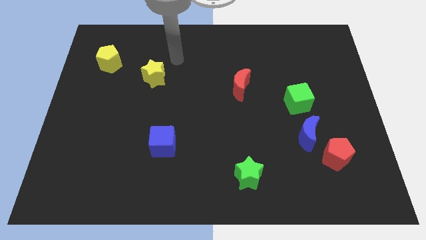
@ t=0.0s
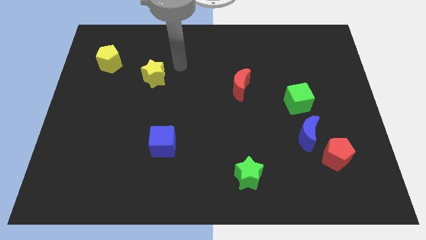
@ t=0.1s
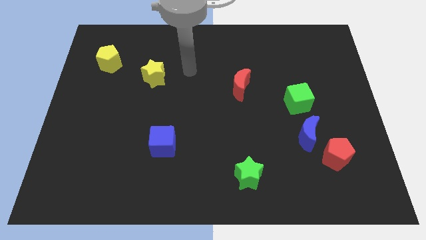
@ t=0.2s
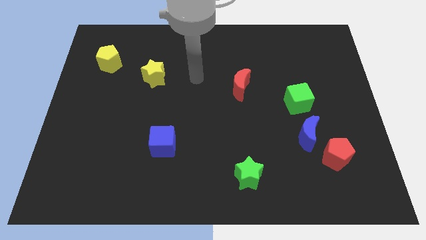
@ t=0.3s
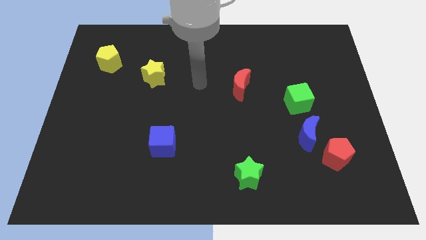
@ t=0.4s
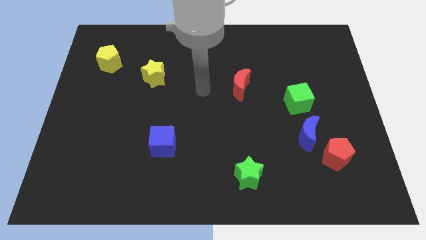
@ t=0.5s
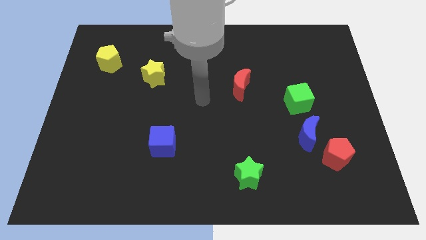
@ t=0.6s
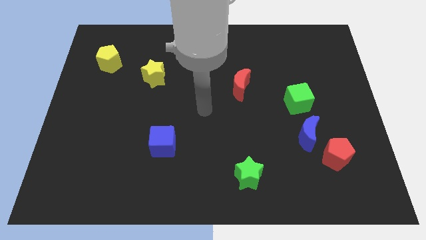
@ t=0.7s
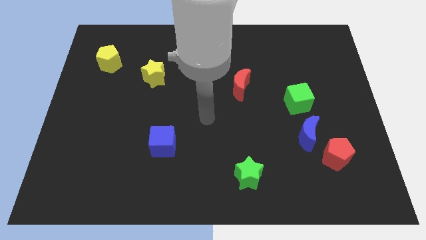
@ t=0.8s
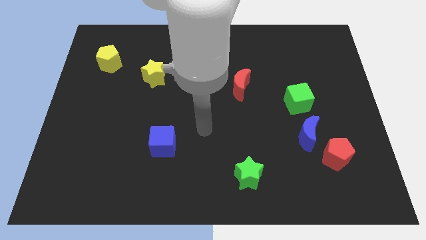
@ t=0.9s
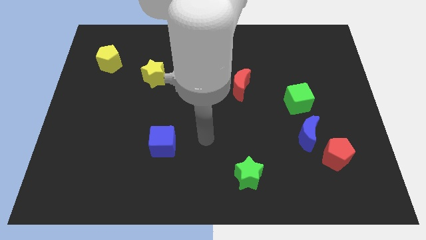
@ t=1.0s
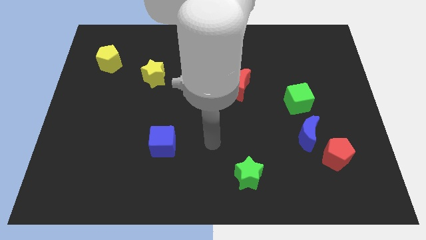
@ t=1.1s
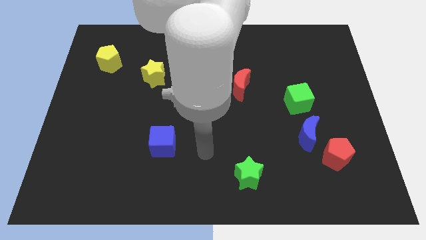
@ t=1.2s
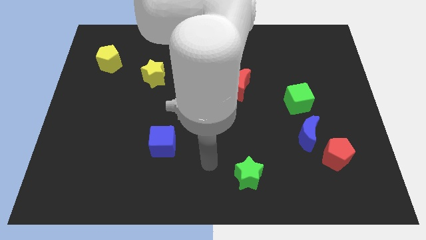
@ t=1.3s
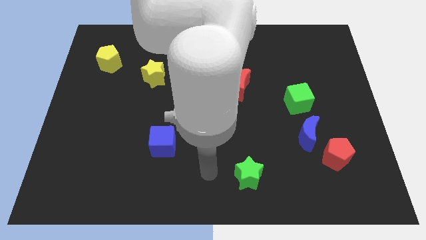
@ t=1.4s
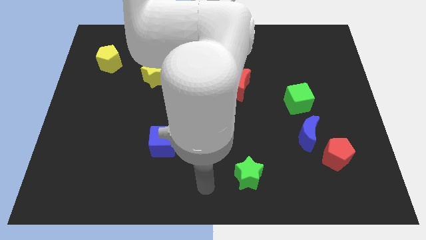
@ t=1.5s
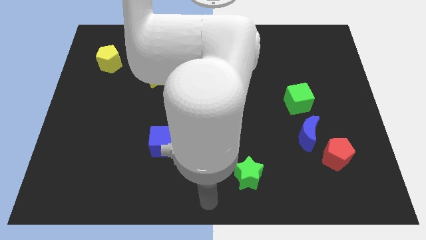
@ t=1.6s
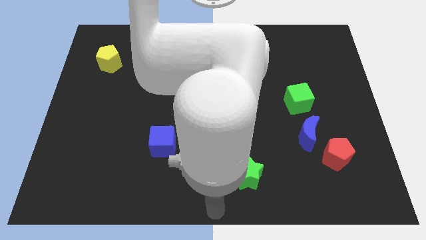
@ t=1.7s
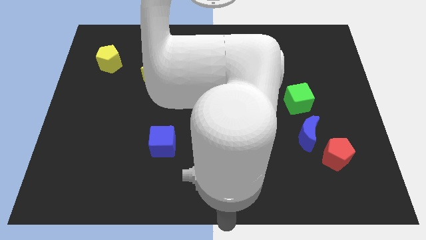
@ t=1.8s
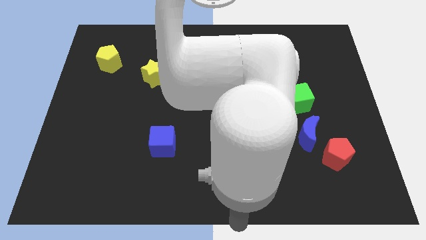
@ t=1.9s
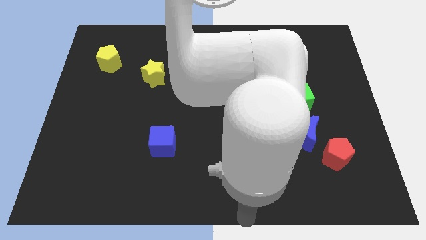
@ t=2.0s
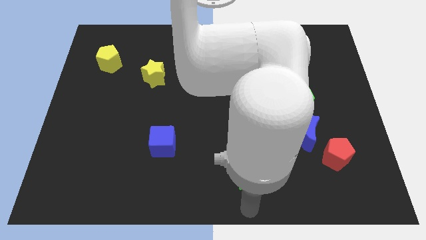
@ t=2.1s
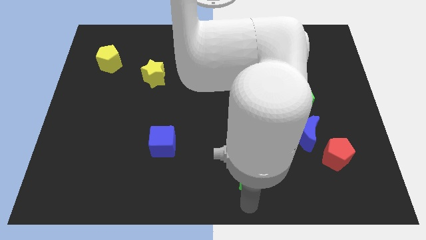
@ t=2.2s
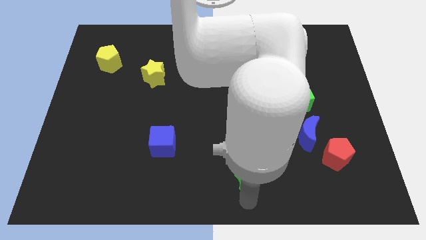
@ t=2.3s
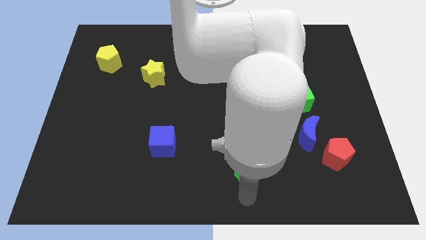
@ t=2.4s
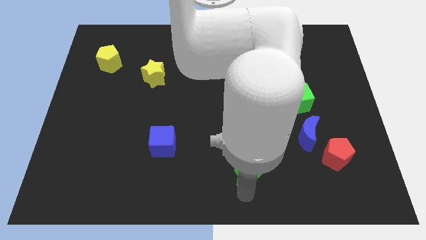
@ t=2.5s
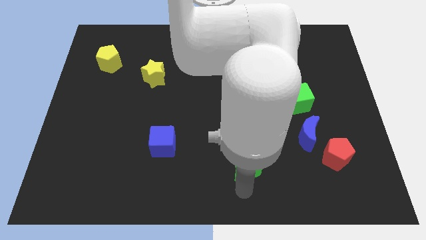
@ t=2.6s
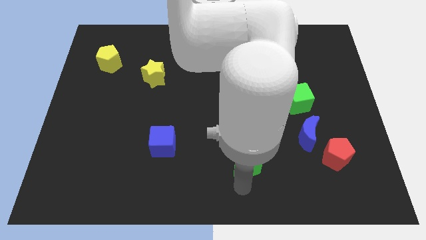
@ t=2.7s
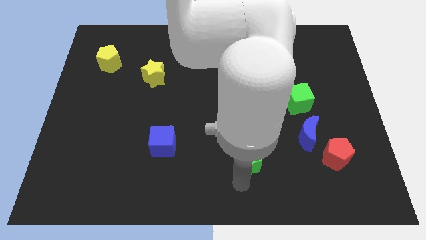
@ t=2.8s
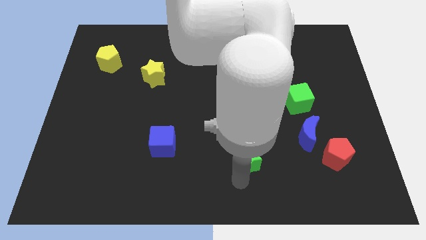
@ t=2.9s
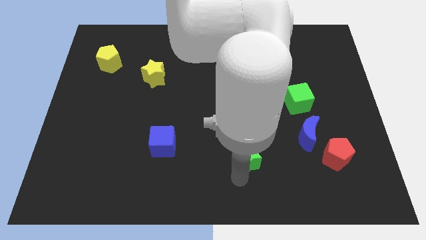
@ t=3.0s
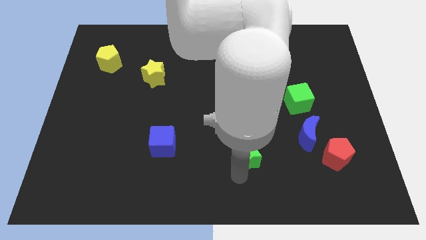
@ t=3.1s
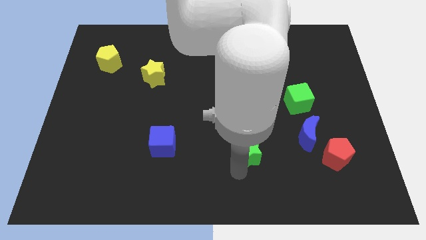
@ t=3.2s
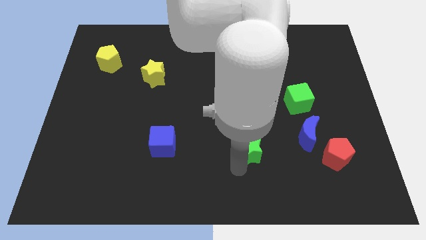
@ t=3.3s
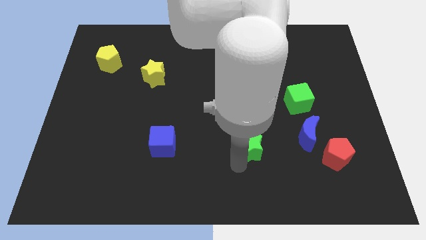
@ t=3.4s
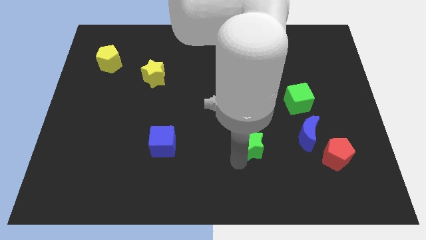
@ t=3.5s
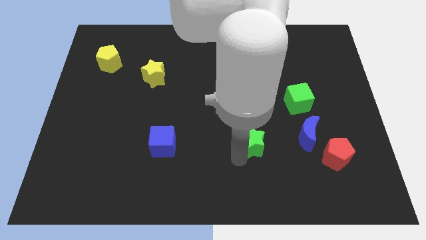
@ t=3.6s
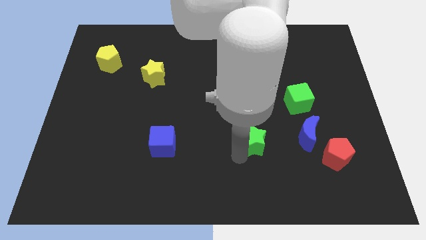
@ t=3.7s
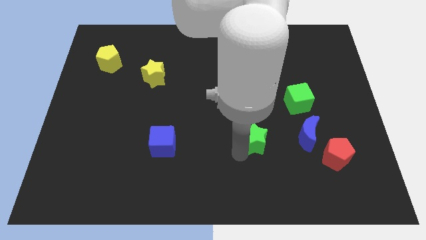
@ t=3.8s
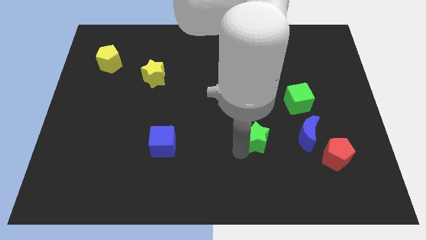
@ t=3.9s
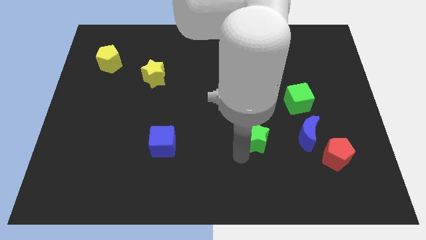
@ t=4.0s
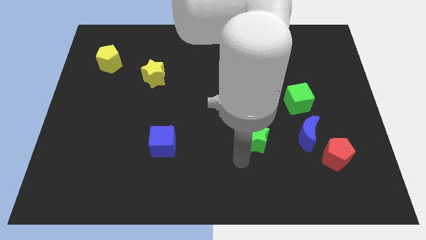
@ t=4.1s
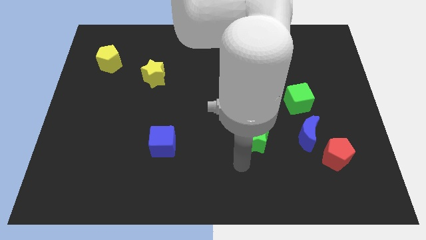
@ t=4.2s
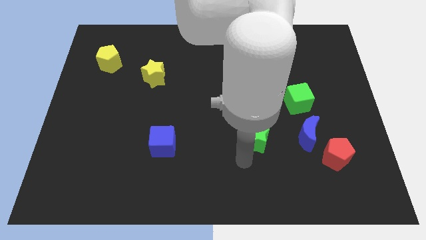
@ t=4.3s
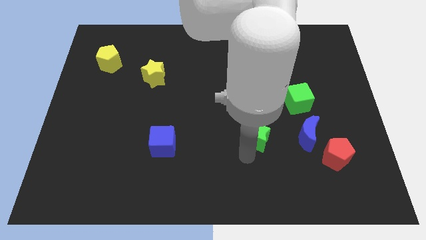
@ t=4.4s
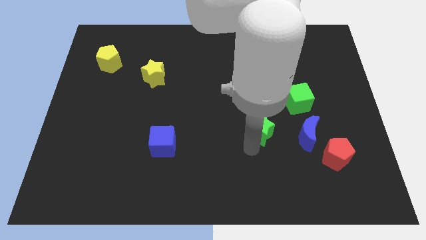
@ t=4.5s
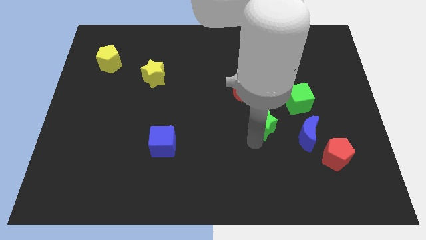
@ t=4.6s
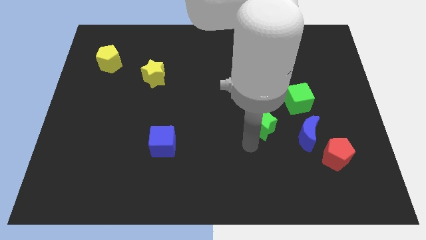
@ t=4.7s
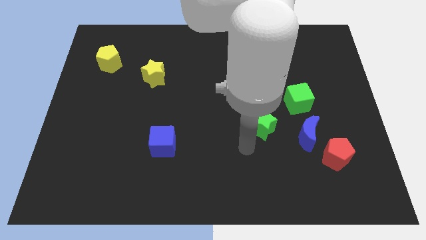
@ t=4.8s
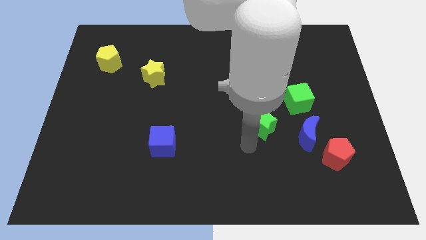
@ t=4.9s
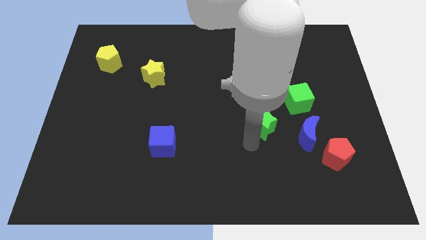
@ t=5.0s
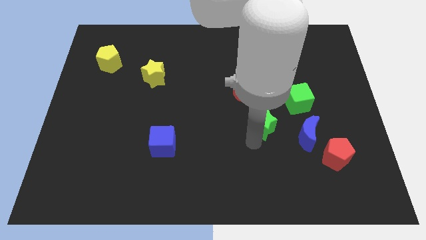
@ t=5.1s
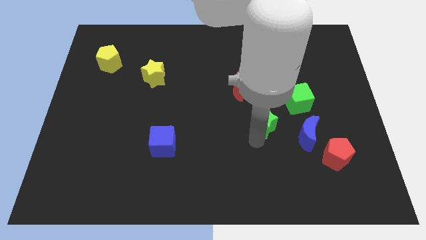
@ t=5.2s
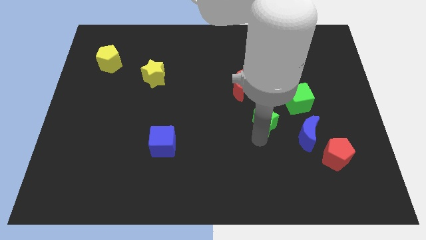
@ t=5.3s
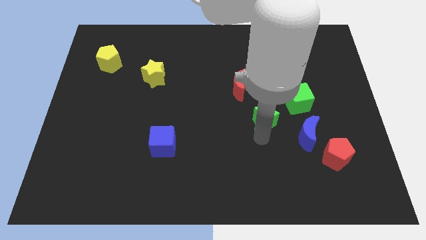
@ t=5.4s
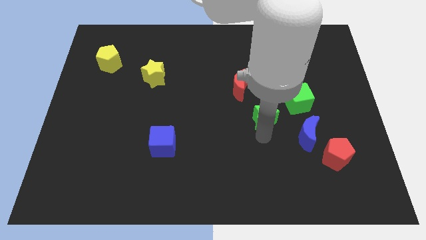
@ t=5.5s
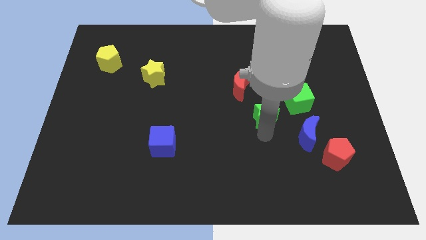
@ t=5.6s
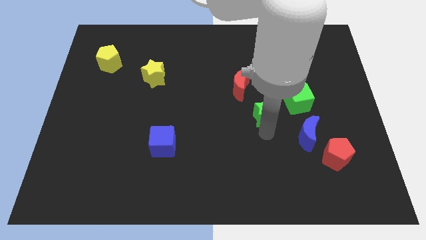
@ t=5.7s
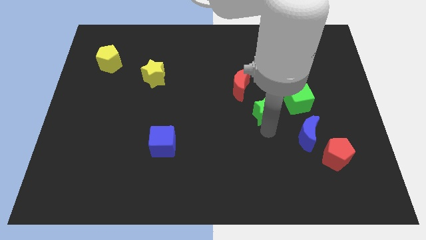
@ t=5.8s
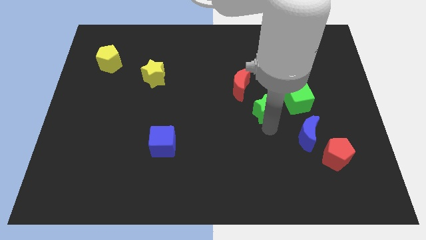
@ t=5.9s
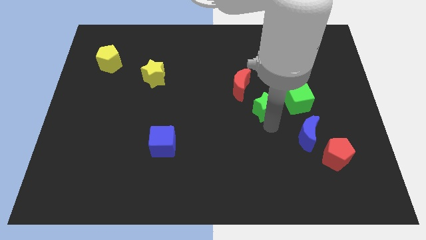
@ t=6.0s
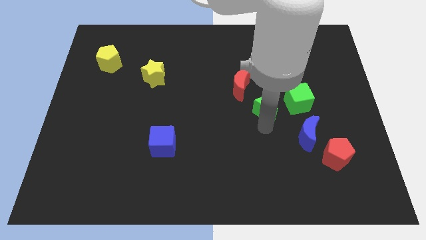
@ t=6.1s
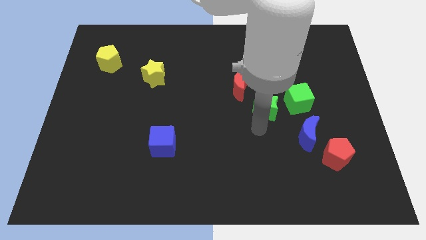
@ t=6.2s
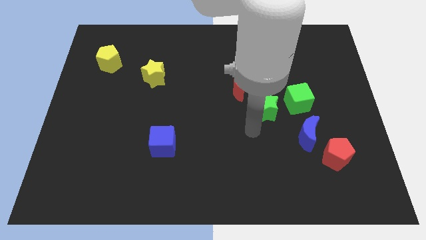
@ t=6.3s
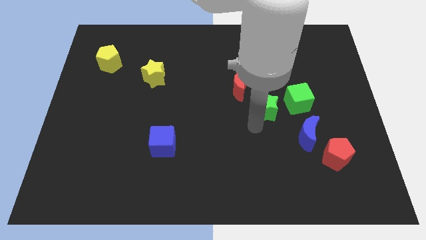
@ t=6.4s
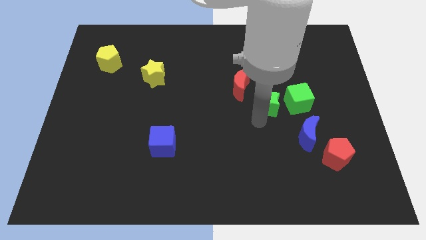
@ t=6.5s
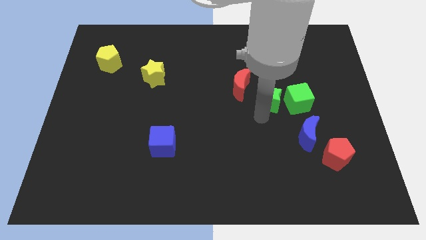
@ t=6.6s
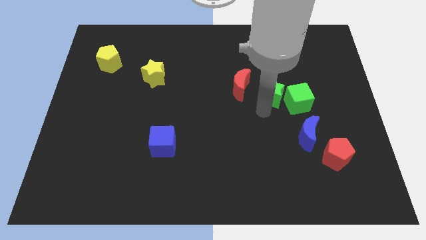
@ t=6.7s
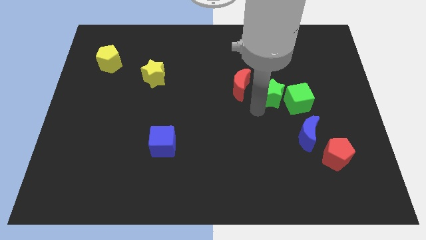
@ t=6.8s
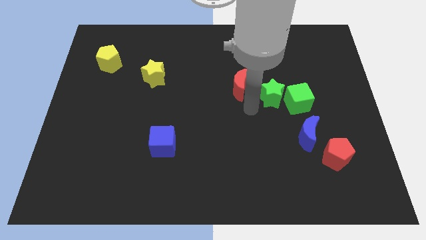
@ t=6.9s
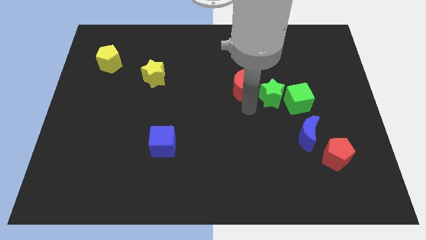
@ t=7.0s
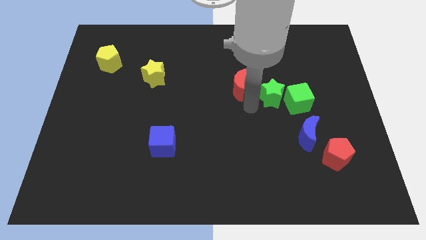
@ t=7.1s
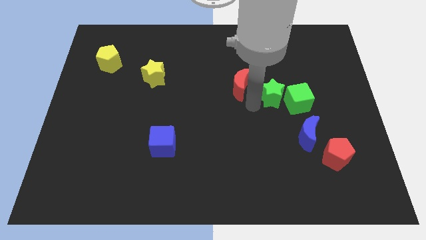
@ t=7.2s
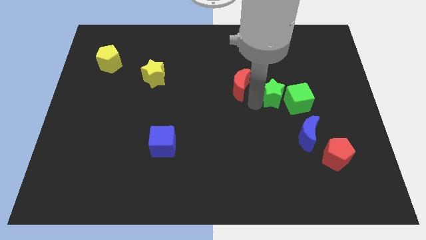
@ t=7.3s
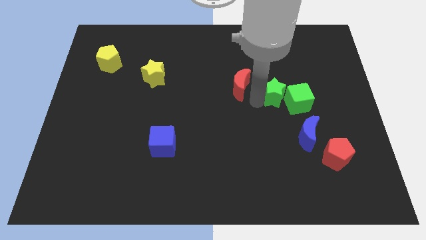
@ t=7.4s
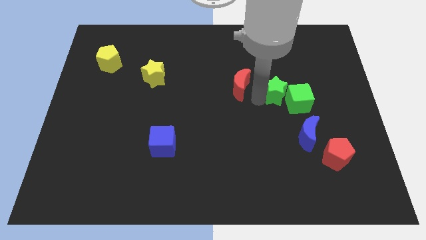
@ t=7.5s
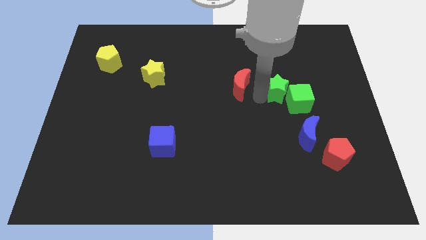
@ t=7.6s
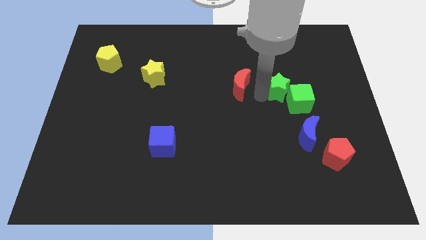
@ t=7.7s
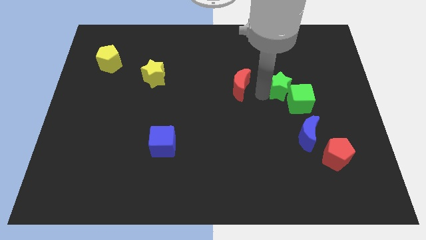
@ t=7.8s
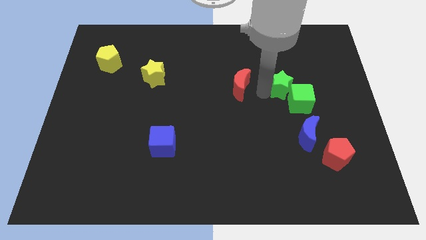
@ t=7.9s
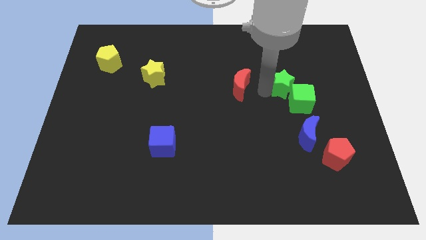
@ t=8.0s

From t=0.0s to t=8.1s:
push the green star to the top side of the blue moon
